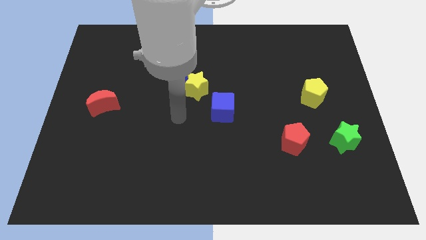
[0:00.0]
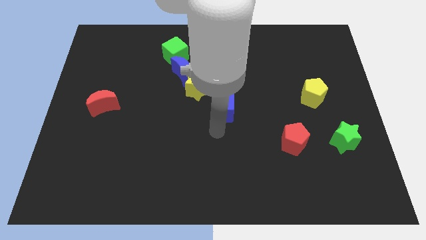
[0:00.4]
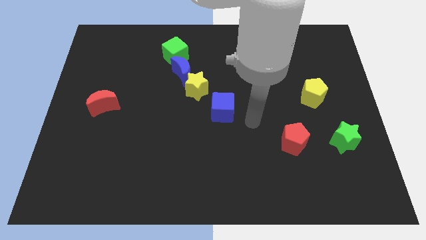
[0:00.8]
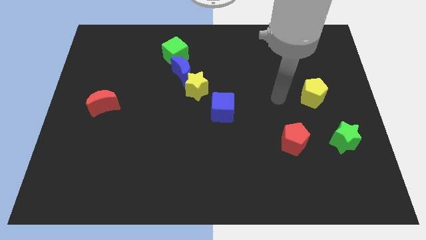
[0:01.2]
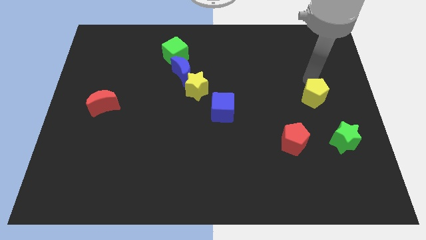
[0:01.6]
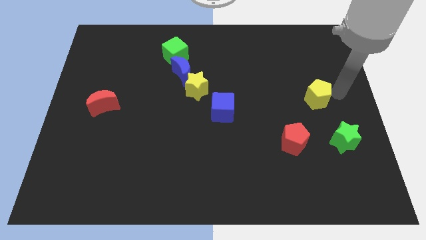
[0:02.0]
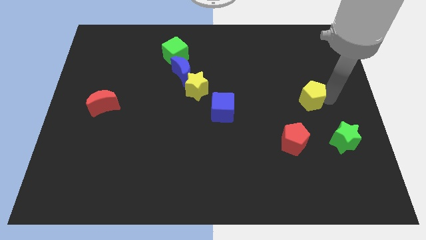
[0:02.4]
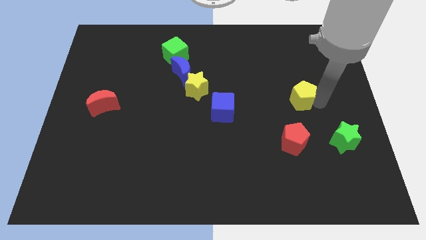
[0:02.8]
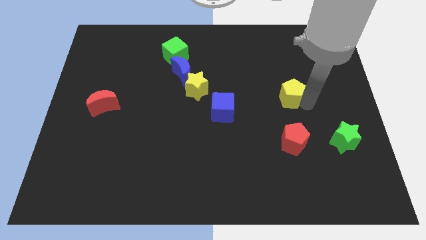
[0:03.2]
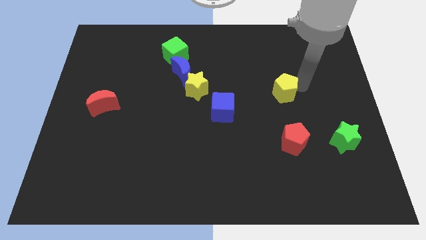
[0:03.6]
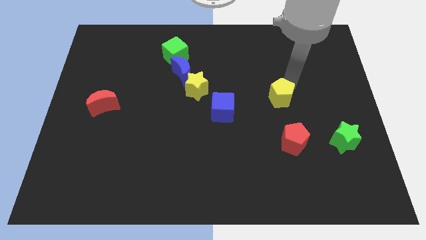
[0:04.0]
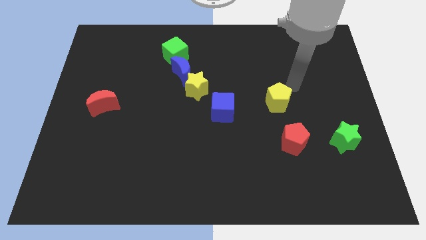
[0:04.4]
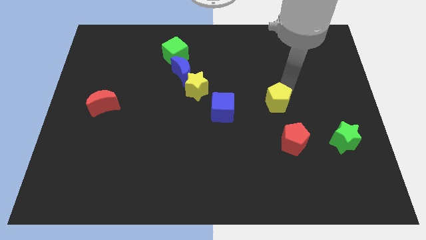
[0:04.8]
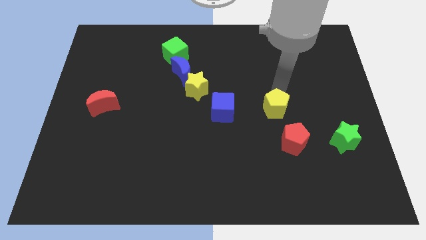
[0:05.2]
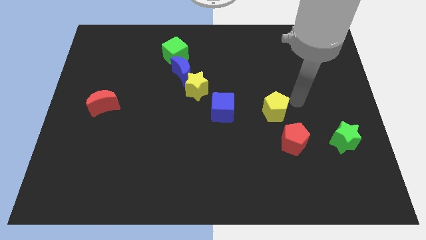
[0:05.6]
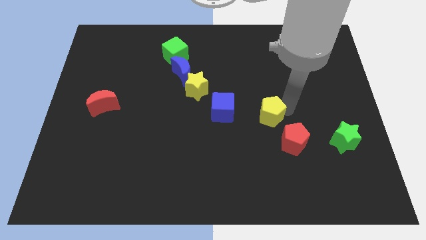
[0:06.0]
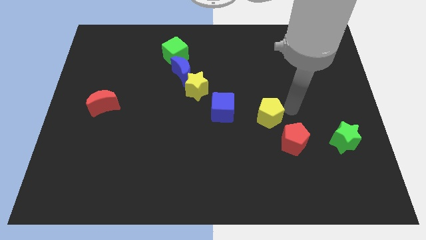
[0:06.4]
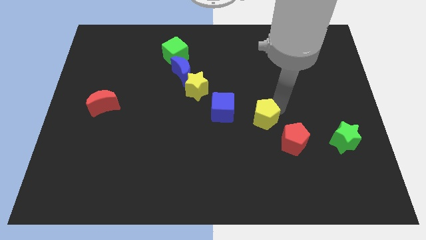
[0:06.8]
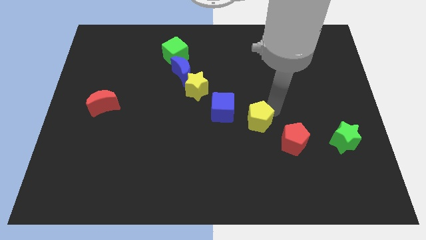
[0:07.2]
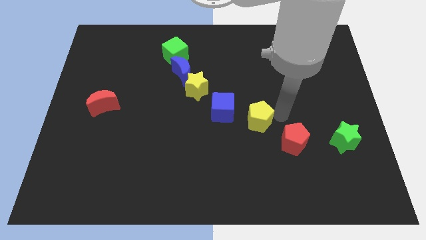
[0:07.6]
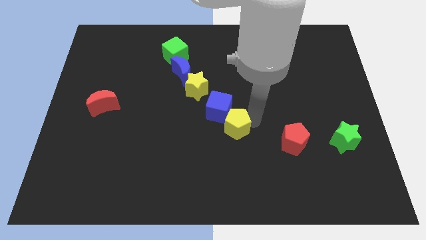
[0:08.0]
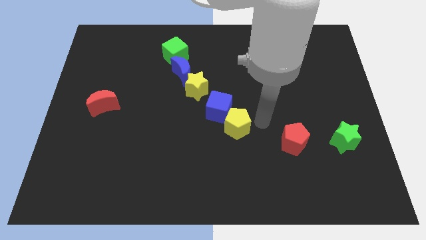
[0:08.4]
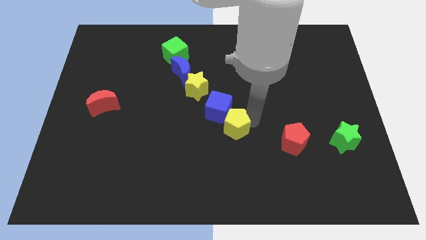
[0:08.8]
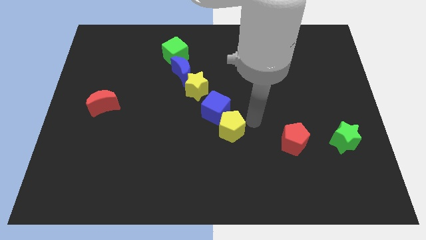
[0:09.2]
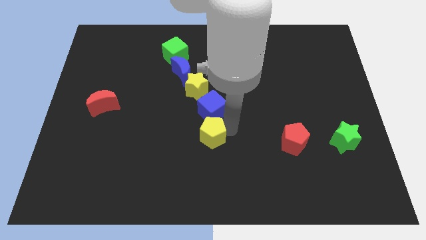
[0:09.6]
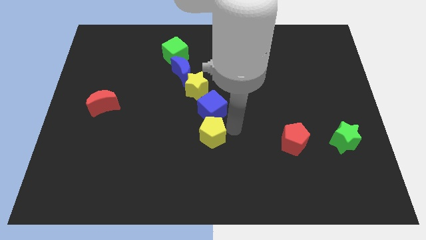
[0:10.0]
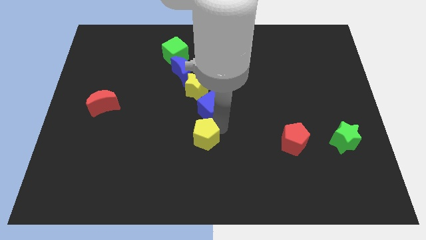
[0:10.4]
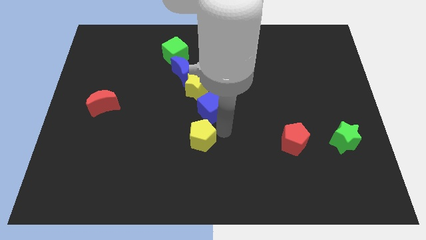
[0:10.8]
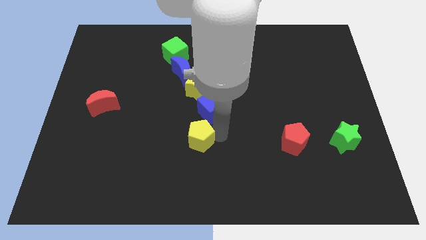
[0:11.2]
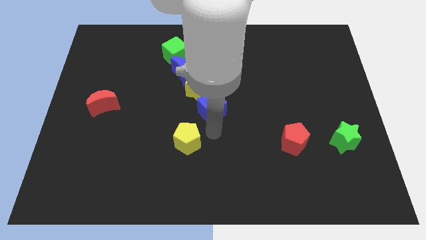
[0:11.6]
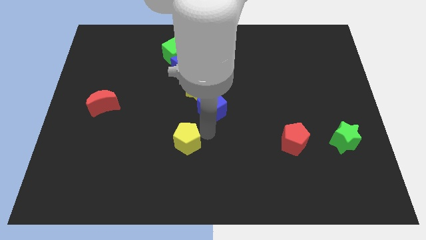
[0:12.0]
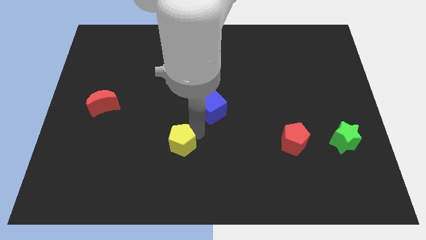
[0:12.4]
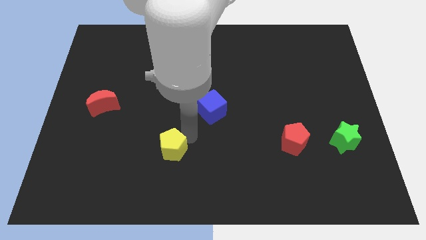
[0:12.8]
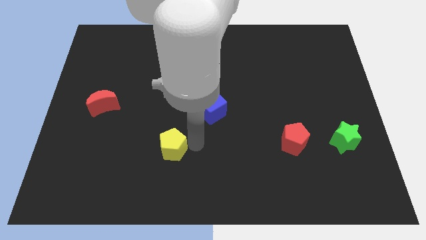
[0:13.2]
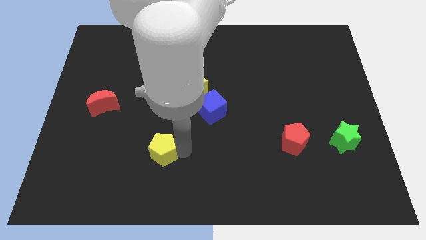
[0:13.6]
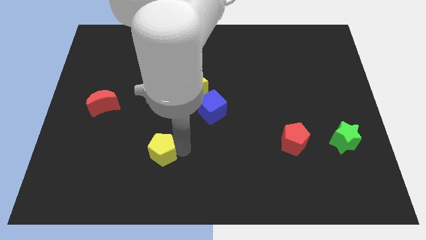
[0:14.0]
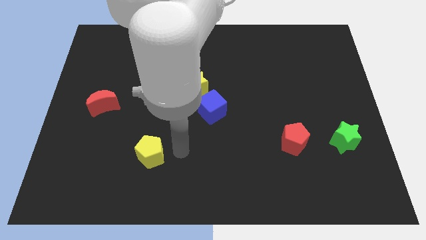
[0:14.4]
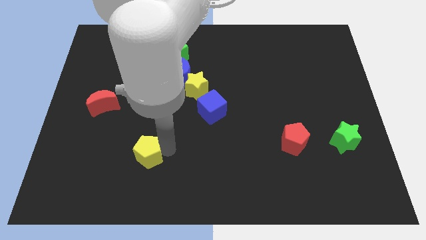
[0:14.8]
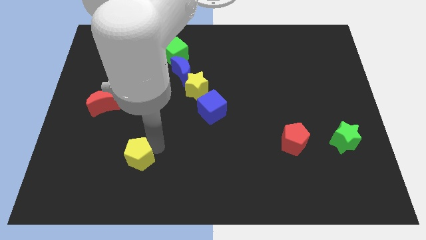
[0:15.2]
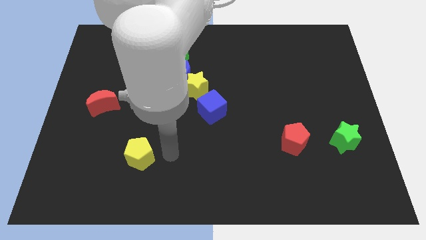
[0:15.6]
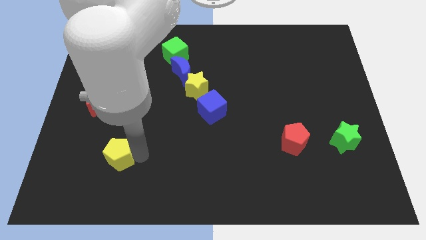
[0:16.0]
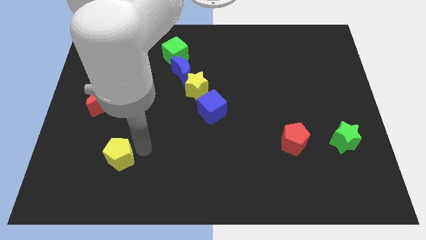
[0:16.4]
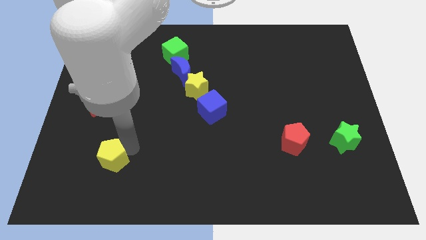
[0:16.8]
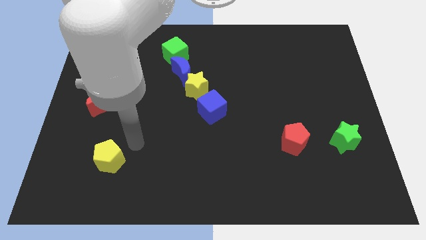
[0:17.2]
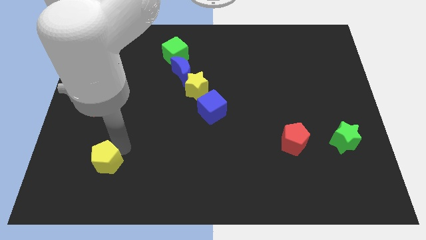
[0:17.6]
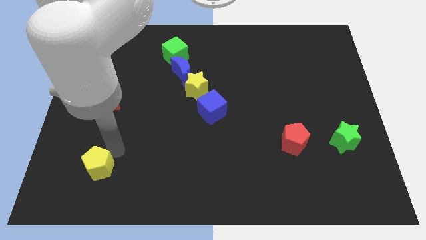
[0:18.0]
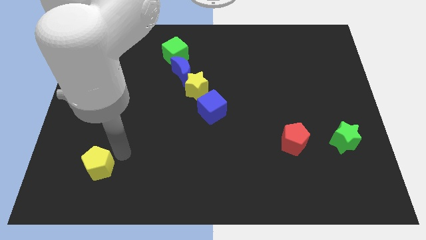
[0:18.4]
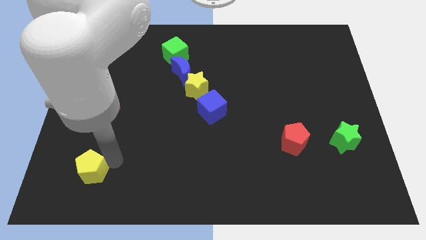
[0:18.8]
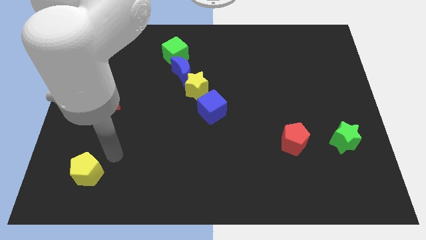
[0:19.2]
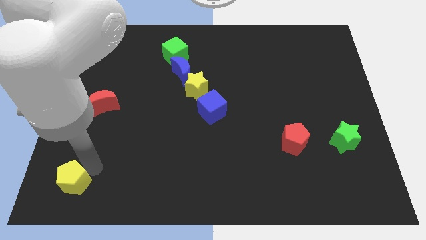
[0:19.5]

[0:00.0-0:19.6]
move the yellow pentagon to the lower left corner

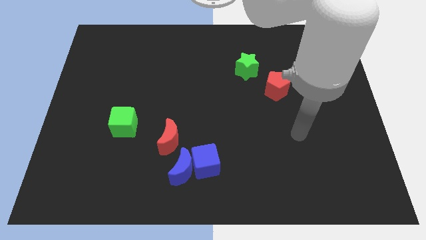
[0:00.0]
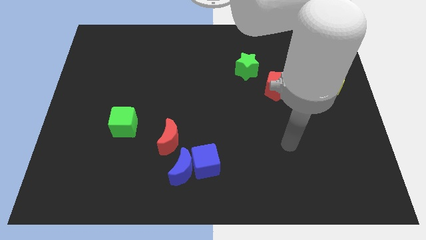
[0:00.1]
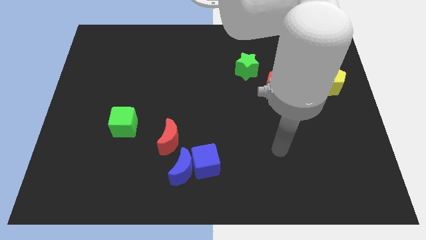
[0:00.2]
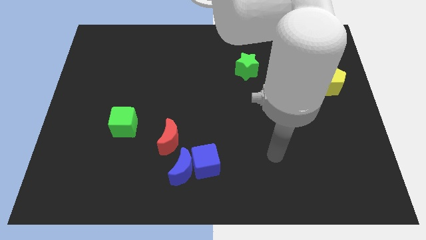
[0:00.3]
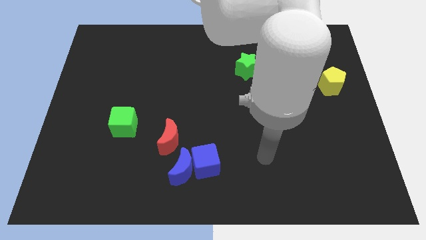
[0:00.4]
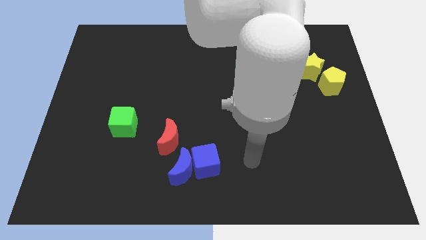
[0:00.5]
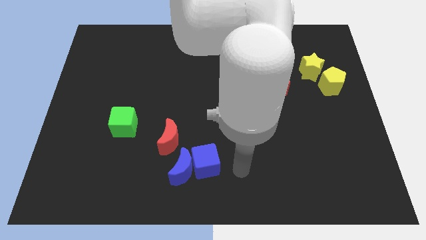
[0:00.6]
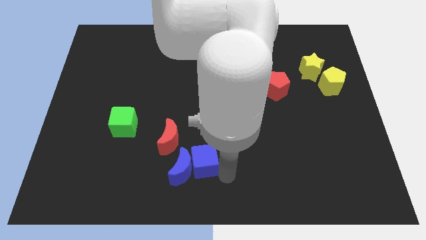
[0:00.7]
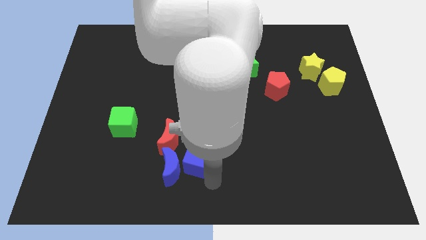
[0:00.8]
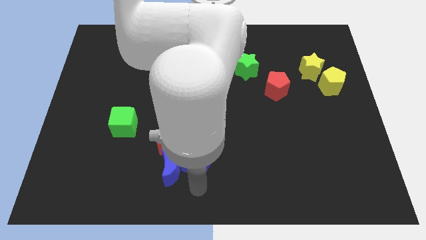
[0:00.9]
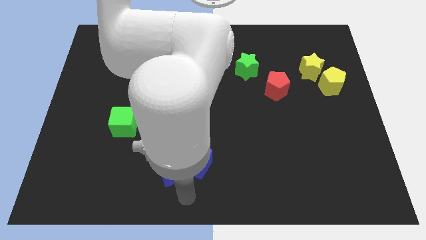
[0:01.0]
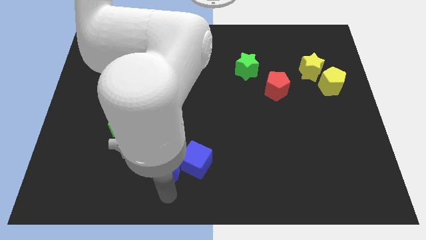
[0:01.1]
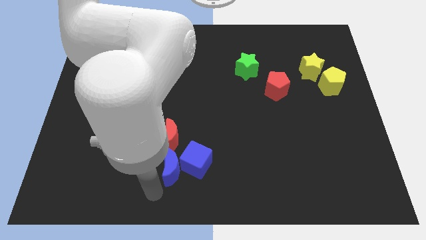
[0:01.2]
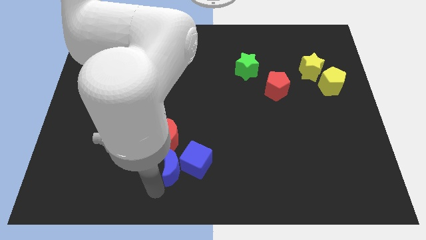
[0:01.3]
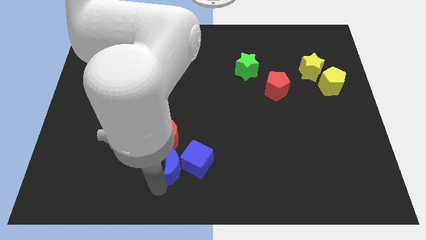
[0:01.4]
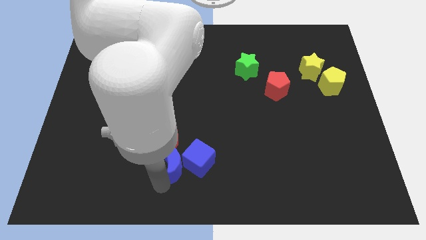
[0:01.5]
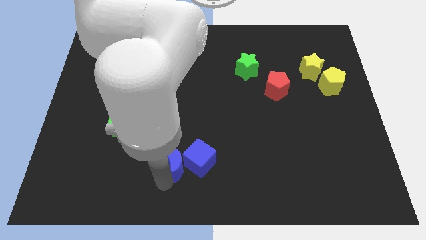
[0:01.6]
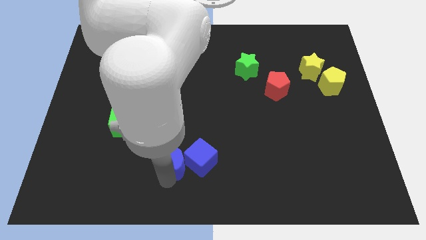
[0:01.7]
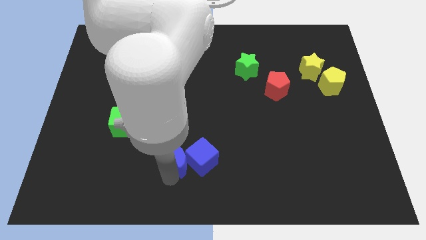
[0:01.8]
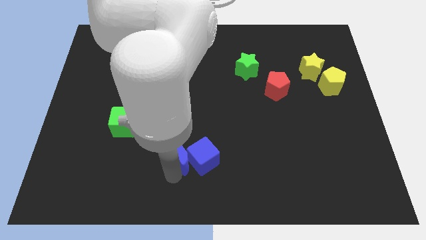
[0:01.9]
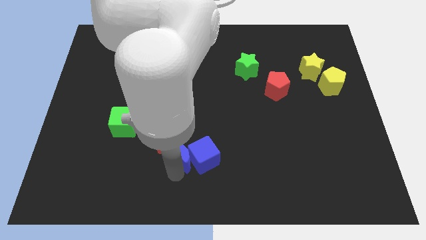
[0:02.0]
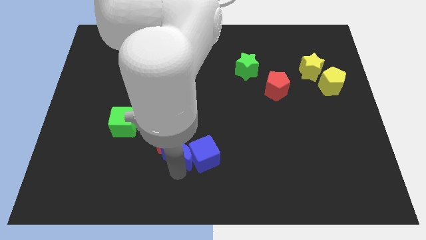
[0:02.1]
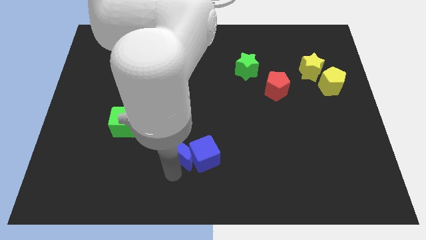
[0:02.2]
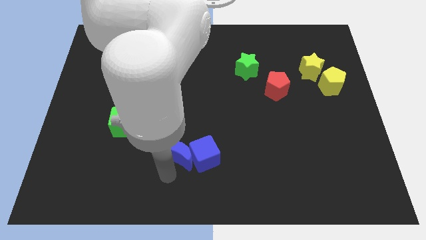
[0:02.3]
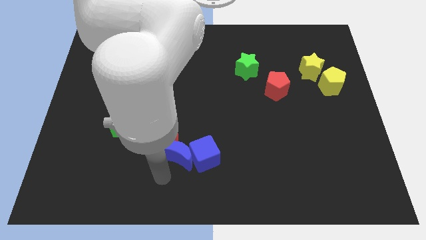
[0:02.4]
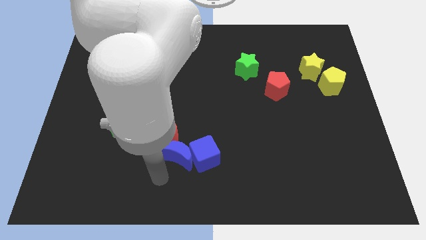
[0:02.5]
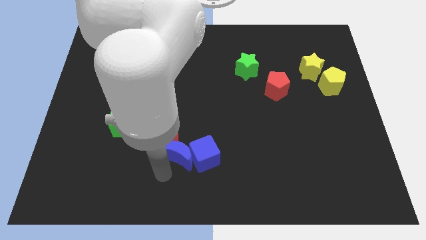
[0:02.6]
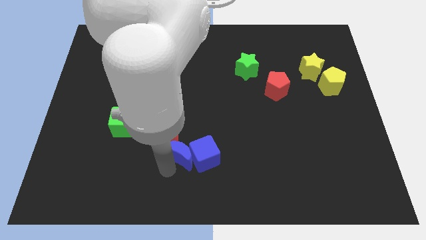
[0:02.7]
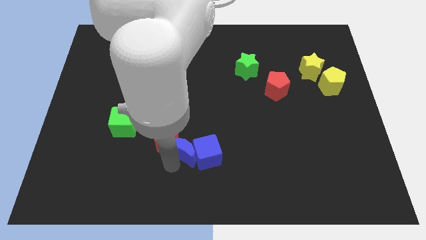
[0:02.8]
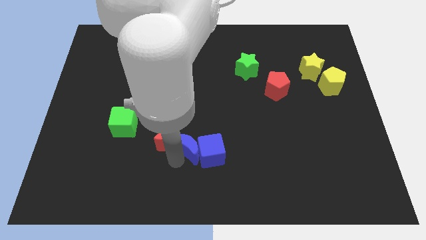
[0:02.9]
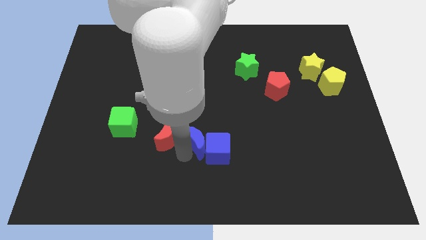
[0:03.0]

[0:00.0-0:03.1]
slide the blue moon to the center of the board
